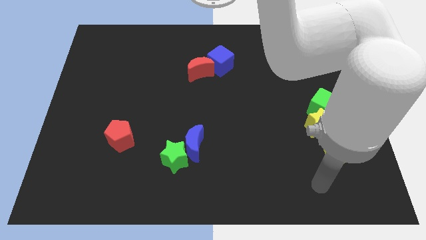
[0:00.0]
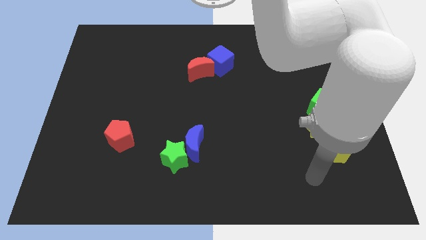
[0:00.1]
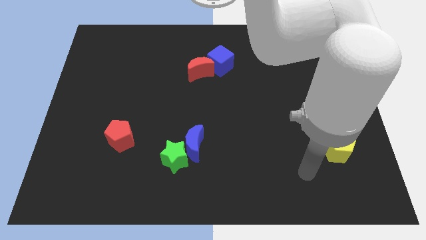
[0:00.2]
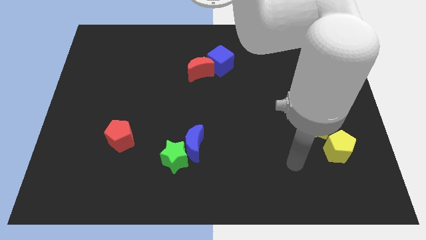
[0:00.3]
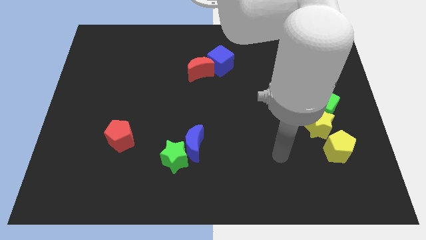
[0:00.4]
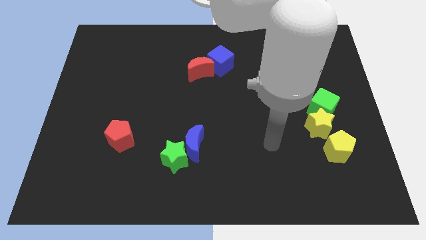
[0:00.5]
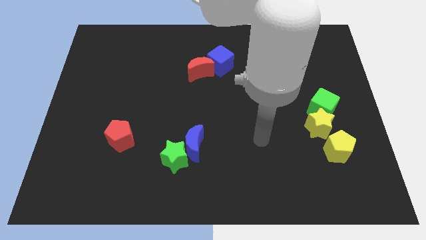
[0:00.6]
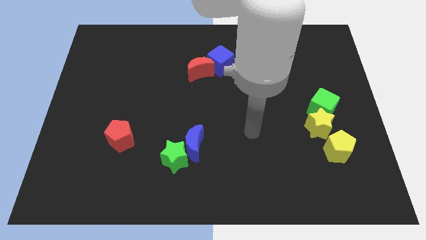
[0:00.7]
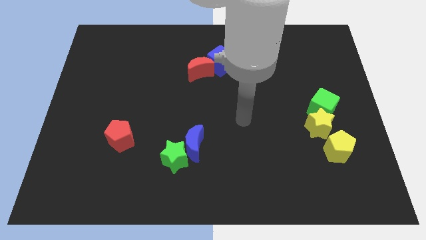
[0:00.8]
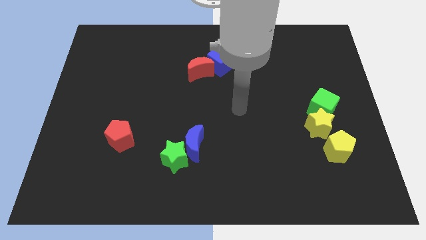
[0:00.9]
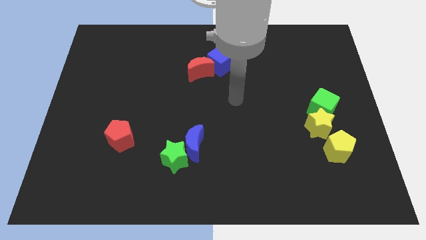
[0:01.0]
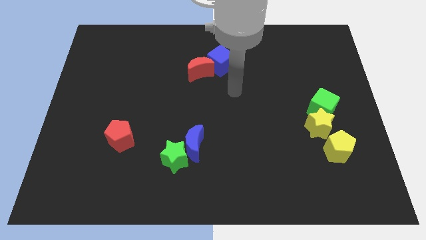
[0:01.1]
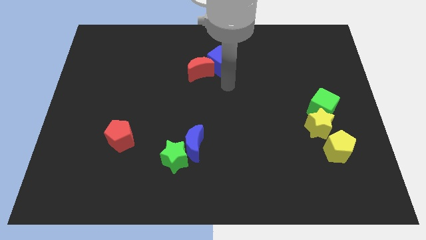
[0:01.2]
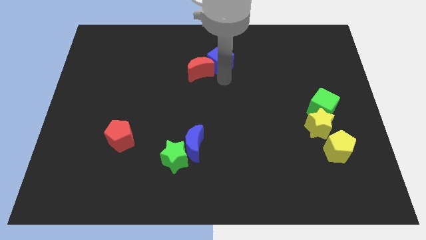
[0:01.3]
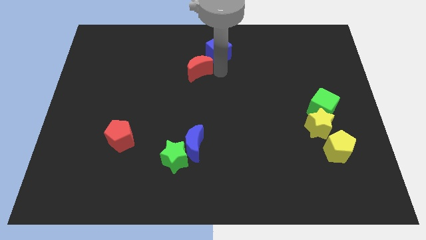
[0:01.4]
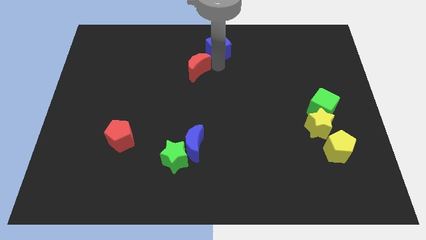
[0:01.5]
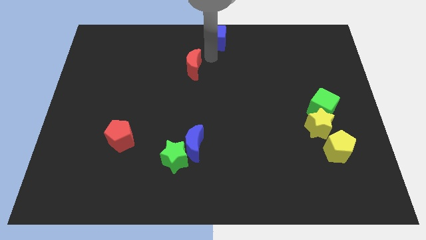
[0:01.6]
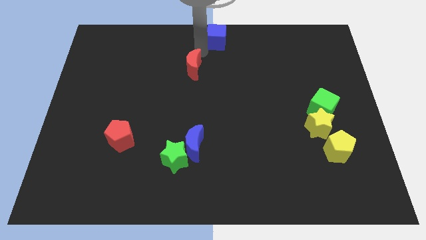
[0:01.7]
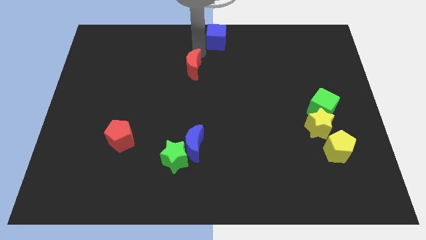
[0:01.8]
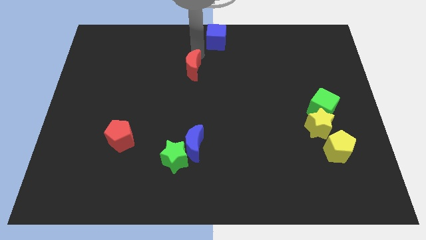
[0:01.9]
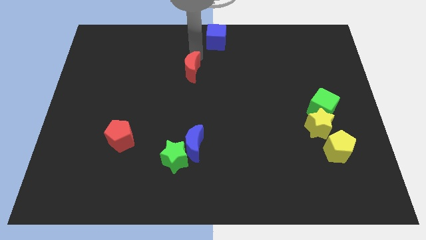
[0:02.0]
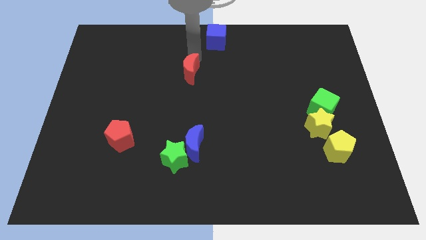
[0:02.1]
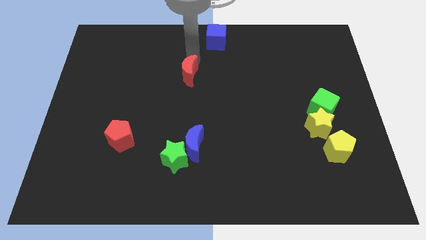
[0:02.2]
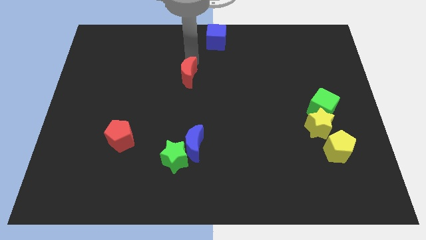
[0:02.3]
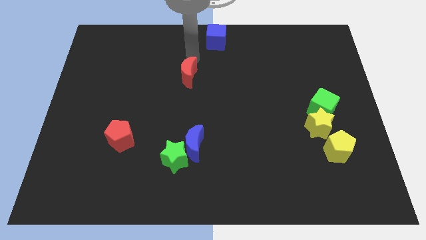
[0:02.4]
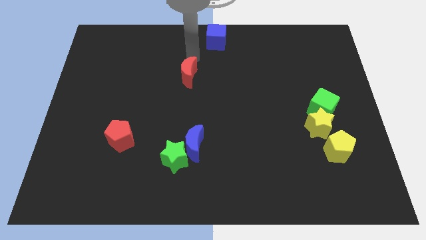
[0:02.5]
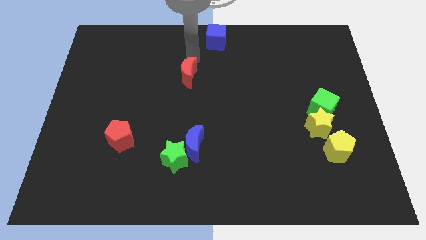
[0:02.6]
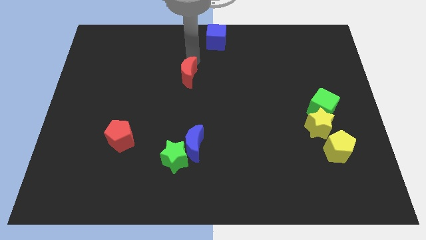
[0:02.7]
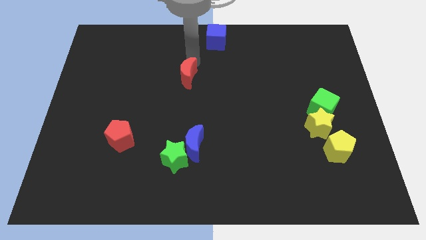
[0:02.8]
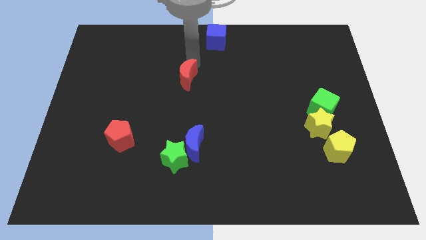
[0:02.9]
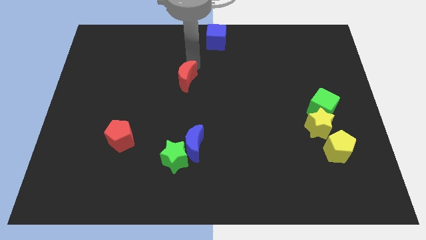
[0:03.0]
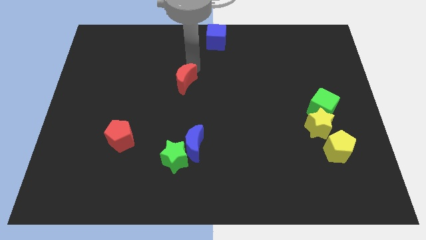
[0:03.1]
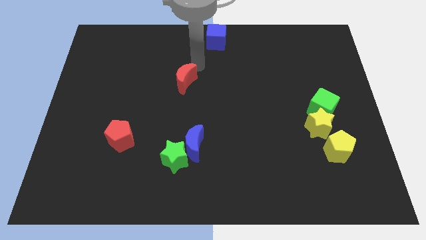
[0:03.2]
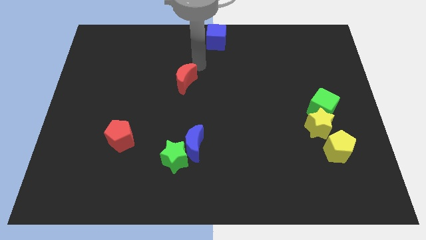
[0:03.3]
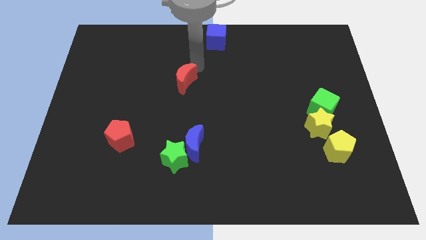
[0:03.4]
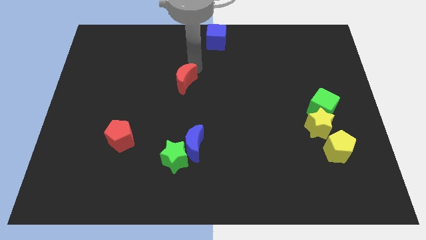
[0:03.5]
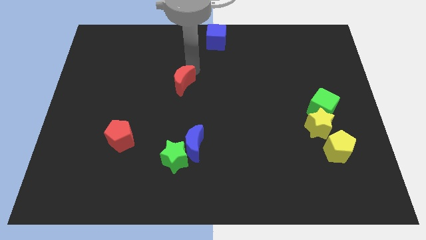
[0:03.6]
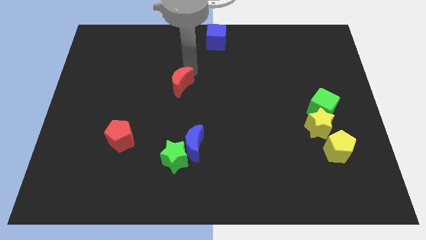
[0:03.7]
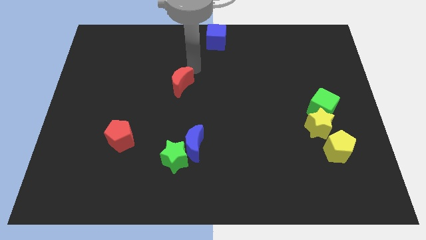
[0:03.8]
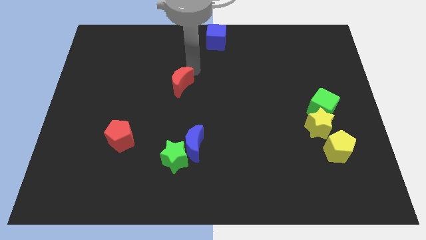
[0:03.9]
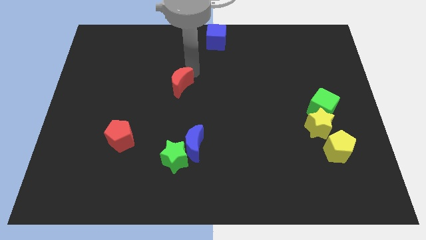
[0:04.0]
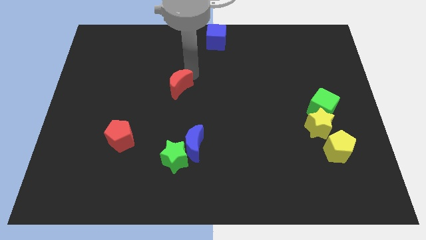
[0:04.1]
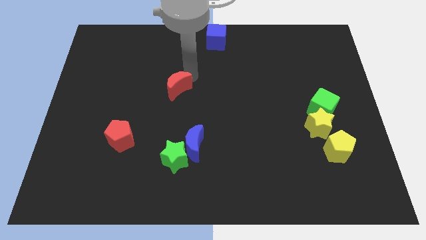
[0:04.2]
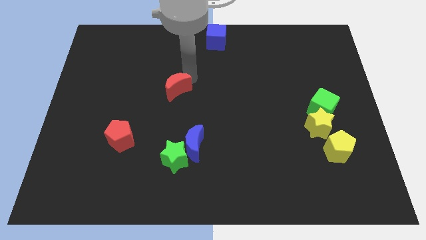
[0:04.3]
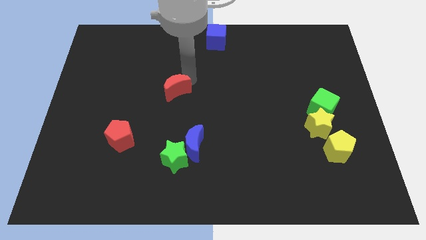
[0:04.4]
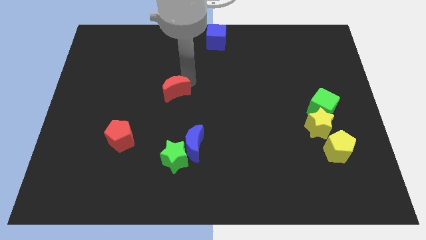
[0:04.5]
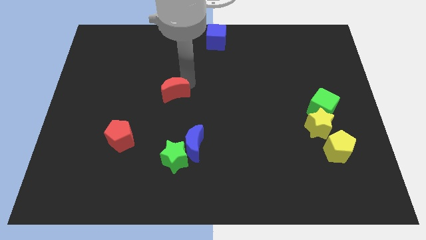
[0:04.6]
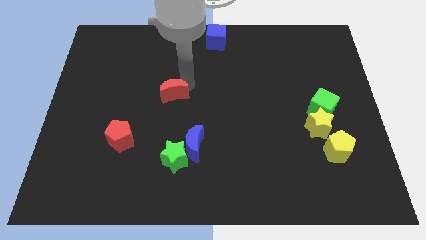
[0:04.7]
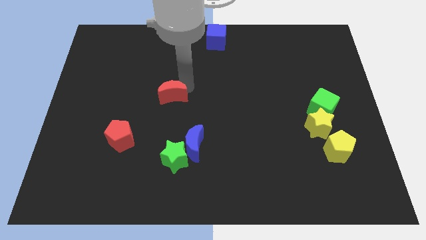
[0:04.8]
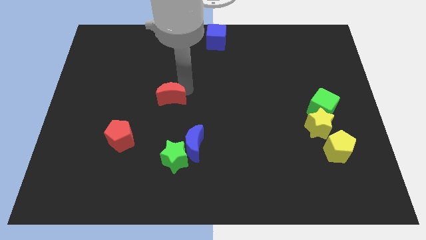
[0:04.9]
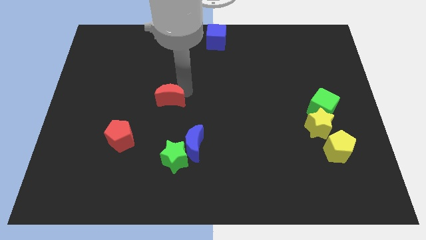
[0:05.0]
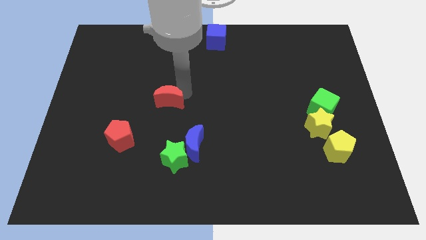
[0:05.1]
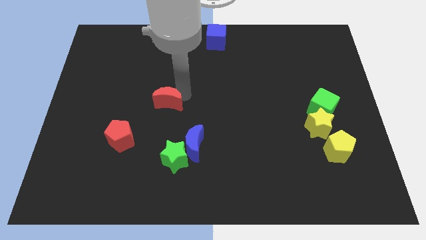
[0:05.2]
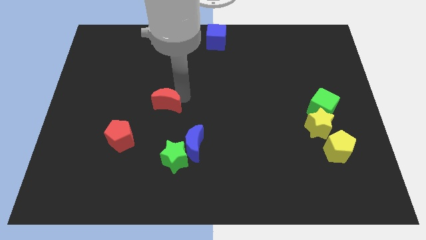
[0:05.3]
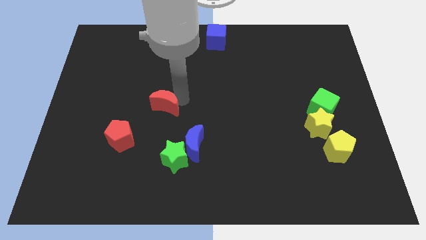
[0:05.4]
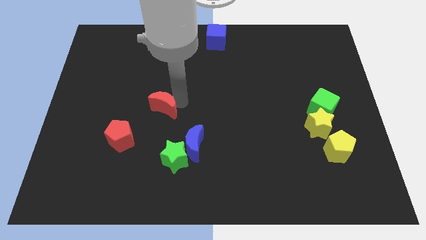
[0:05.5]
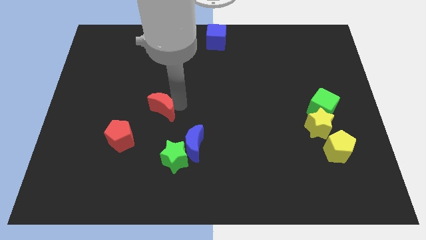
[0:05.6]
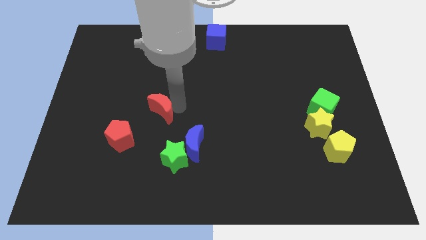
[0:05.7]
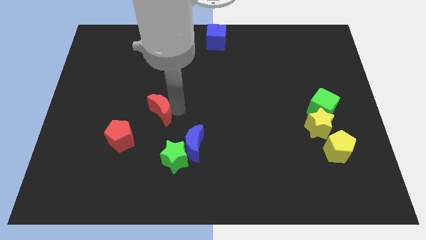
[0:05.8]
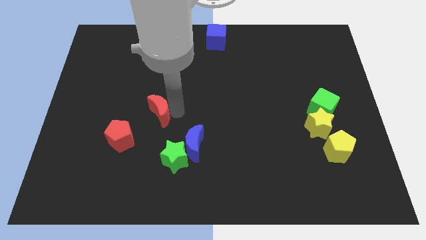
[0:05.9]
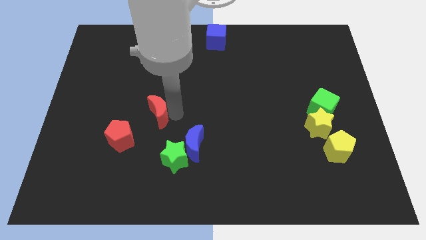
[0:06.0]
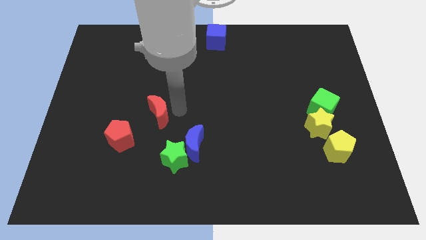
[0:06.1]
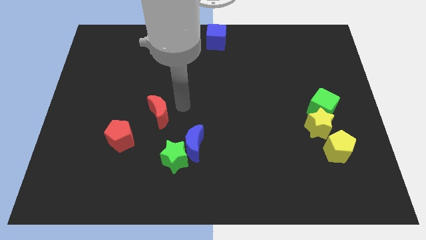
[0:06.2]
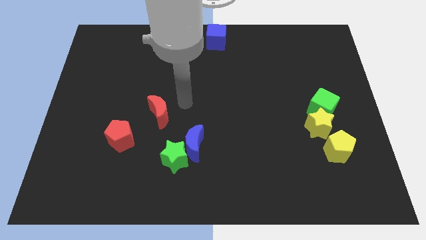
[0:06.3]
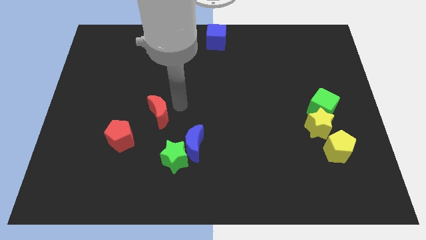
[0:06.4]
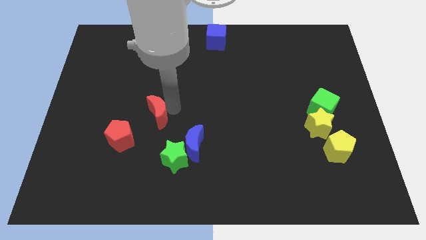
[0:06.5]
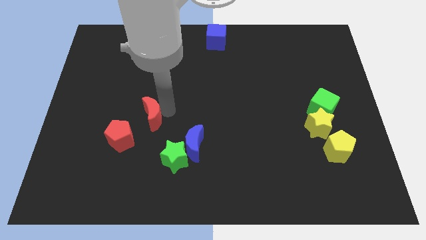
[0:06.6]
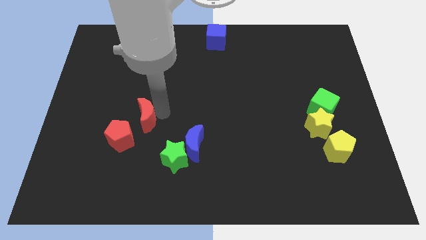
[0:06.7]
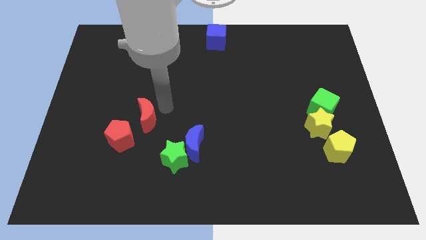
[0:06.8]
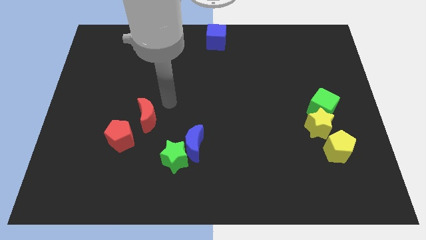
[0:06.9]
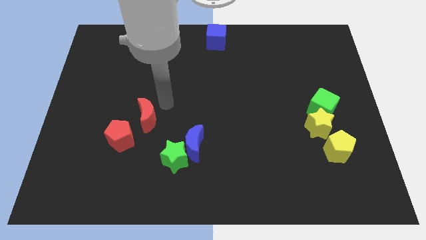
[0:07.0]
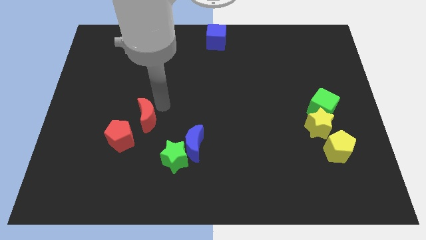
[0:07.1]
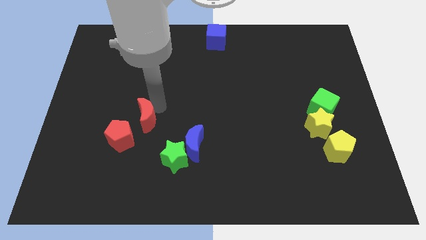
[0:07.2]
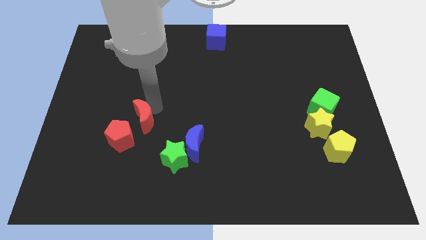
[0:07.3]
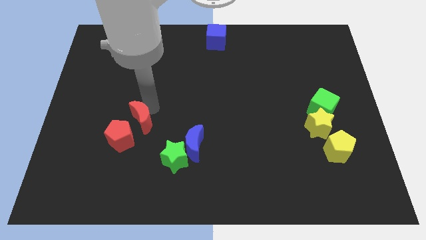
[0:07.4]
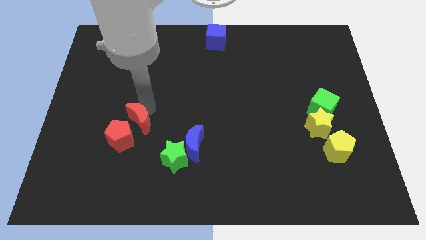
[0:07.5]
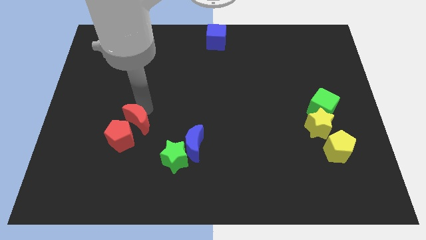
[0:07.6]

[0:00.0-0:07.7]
move the red moon to the red pentagon

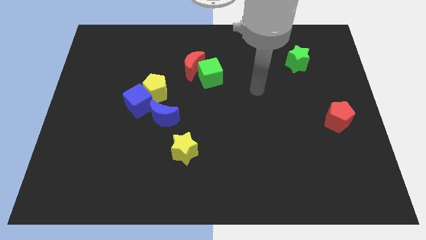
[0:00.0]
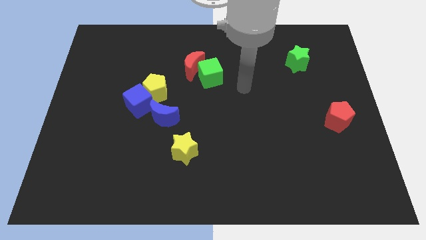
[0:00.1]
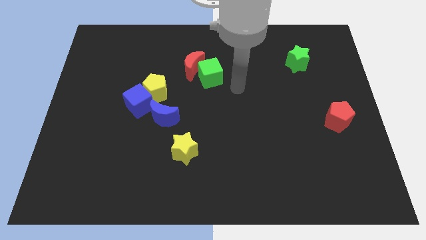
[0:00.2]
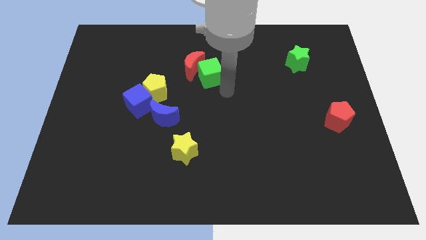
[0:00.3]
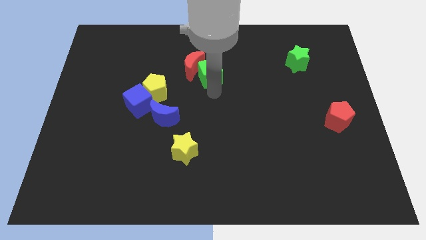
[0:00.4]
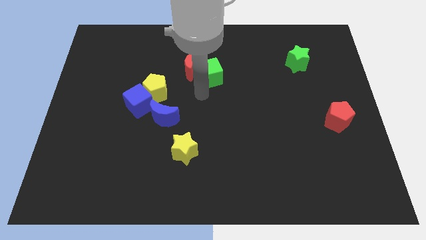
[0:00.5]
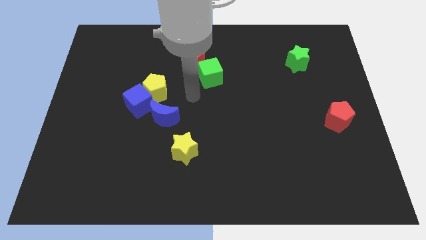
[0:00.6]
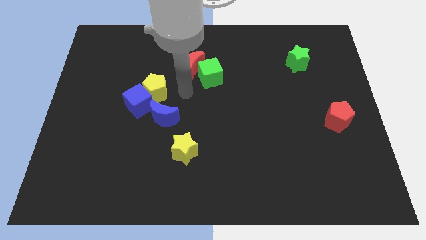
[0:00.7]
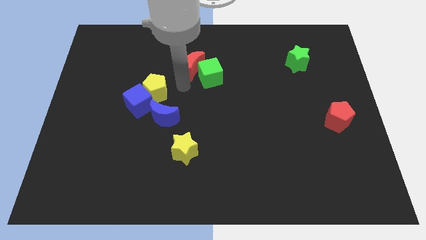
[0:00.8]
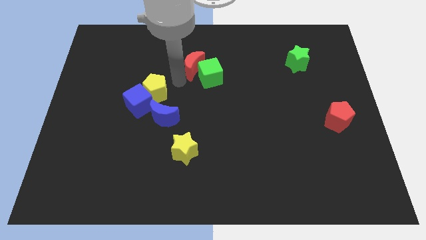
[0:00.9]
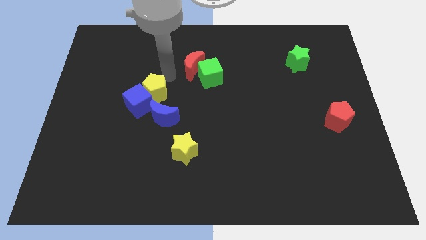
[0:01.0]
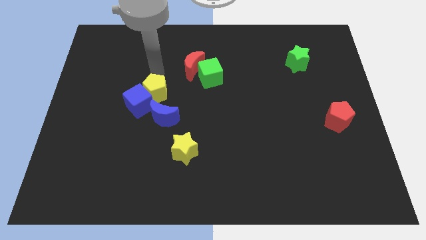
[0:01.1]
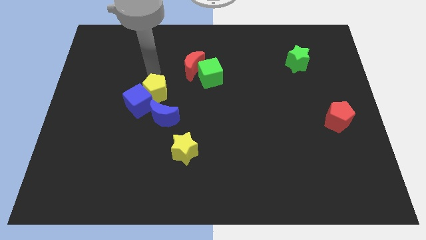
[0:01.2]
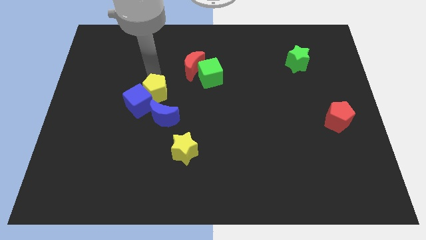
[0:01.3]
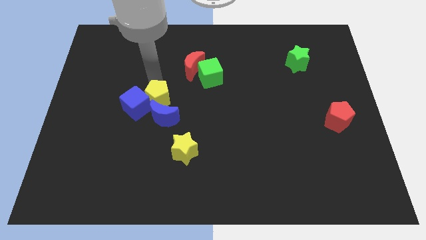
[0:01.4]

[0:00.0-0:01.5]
put the yellow pentagon to the blue moon
